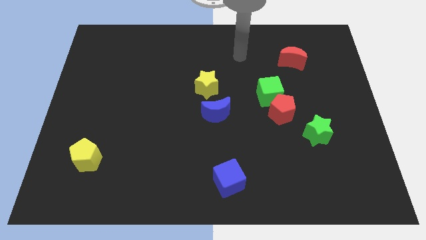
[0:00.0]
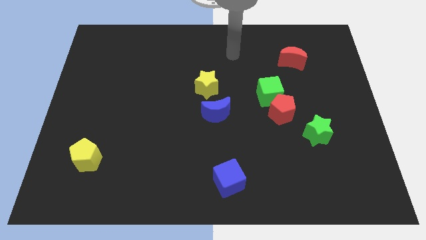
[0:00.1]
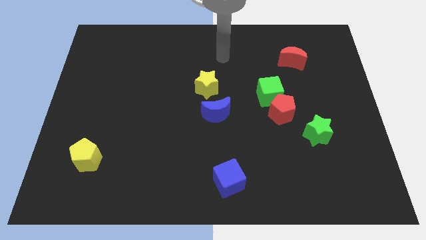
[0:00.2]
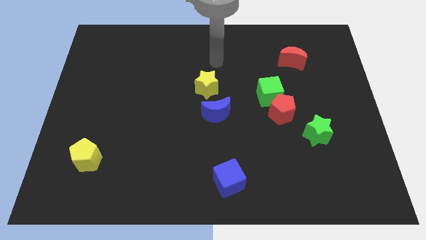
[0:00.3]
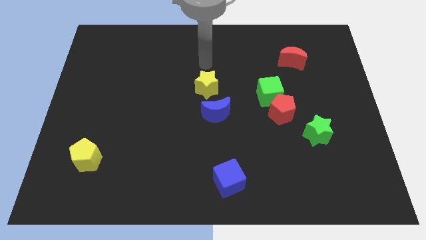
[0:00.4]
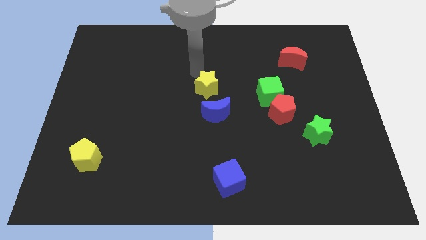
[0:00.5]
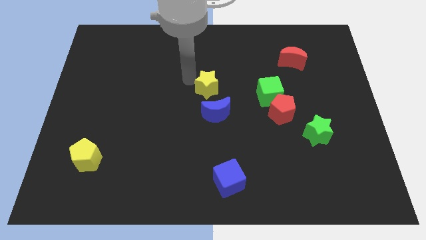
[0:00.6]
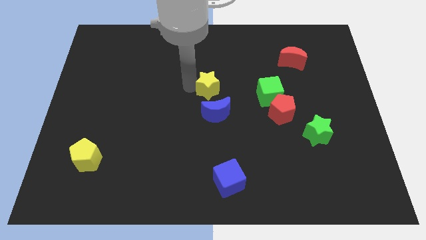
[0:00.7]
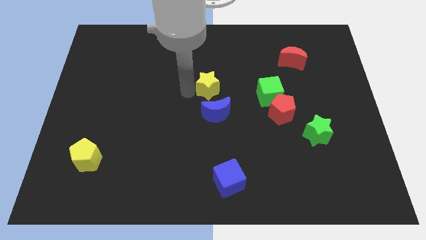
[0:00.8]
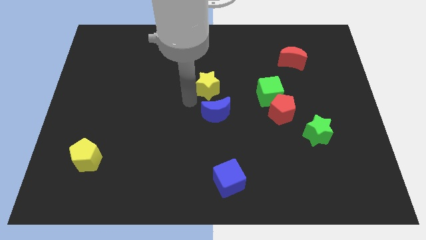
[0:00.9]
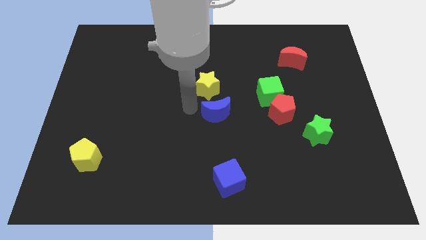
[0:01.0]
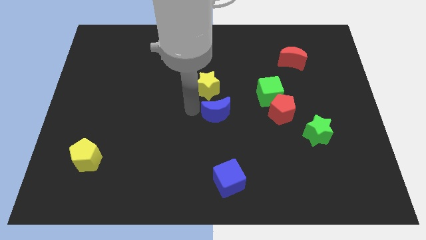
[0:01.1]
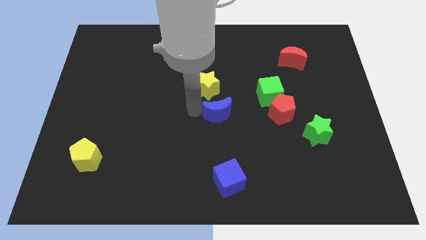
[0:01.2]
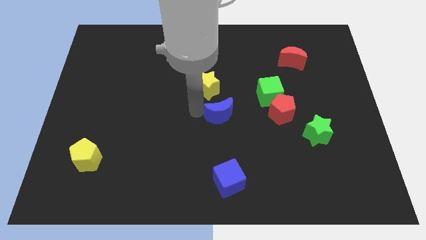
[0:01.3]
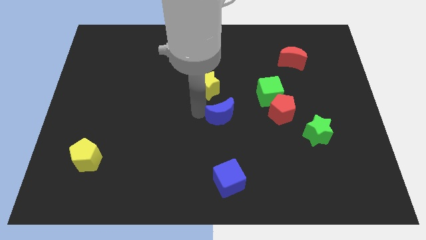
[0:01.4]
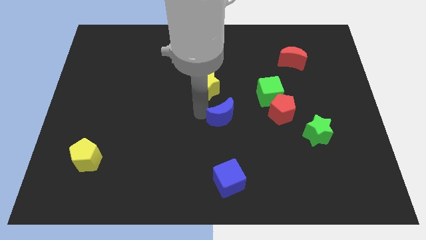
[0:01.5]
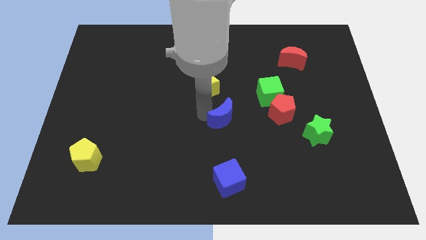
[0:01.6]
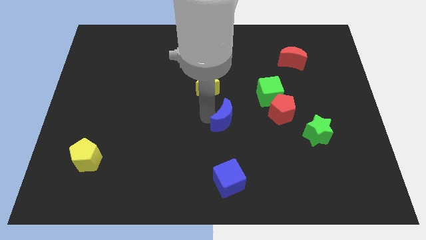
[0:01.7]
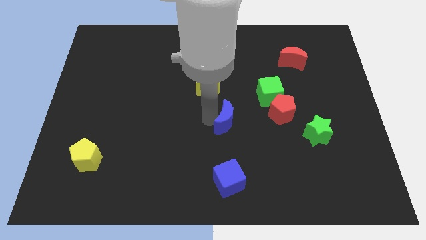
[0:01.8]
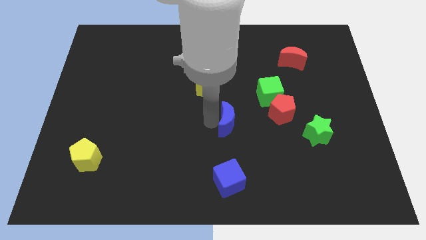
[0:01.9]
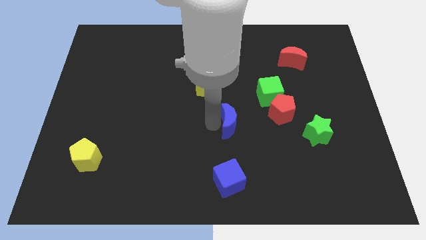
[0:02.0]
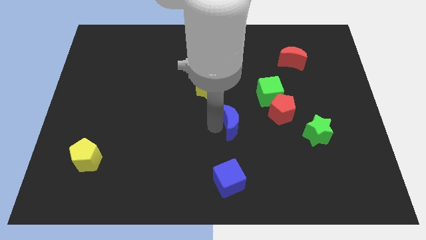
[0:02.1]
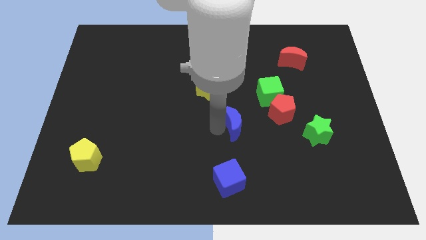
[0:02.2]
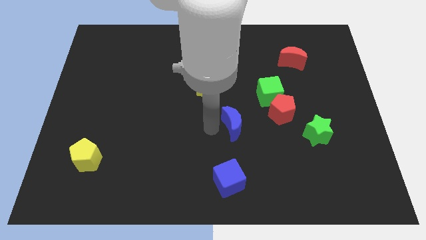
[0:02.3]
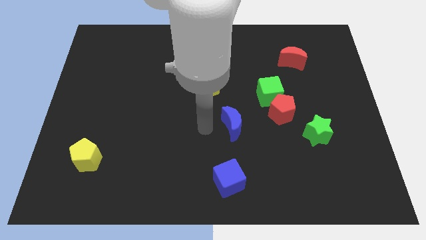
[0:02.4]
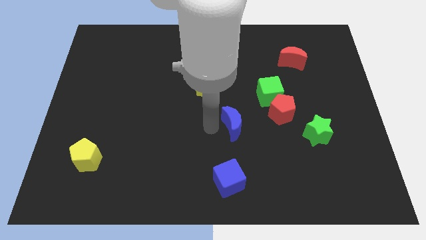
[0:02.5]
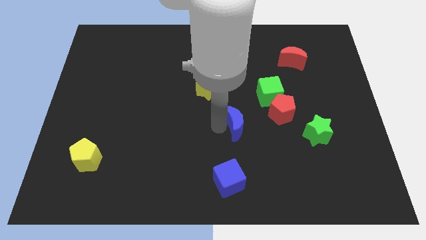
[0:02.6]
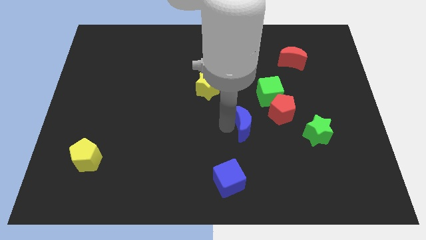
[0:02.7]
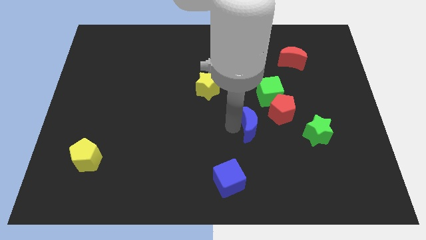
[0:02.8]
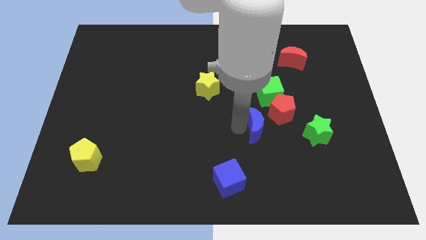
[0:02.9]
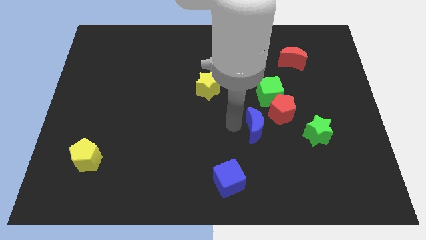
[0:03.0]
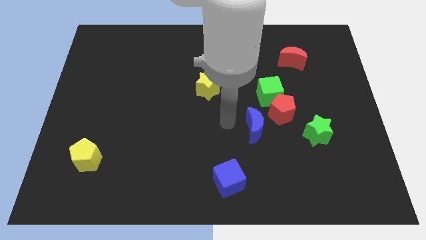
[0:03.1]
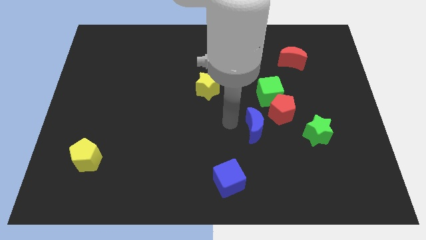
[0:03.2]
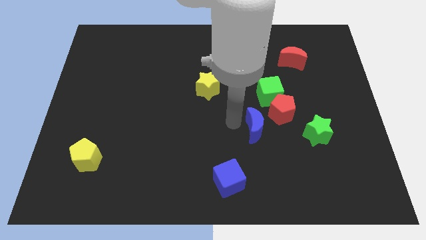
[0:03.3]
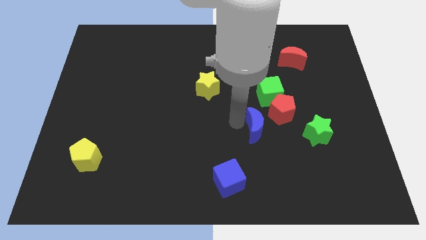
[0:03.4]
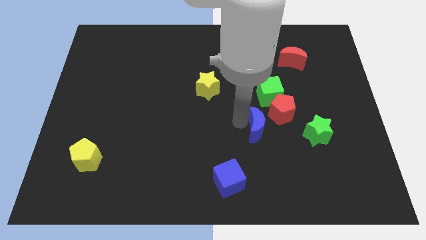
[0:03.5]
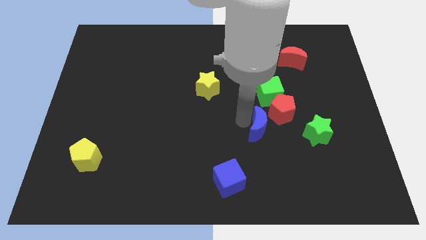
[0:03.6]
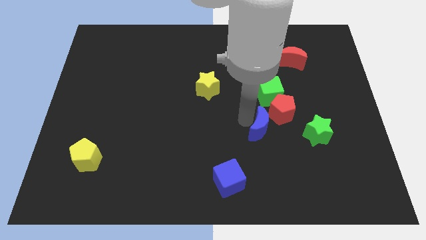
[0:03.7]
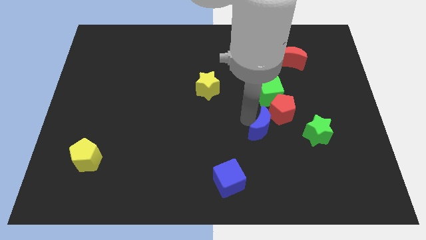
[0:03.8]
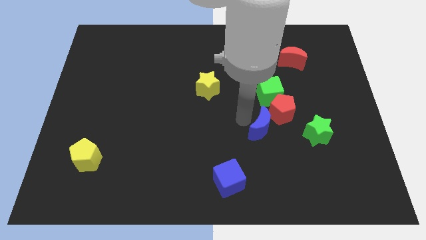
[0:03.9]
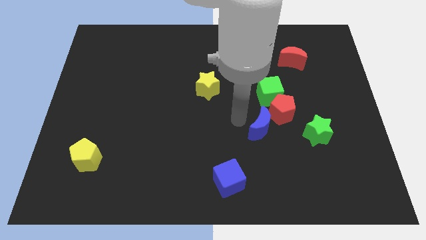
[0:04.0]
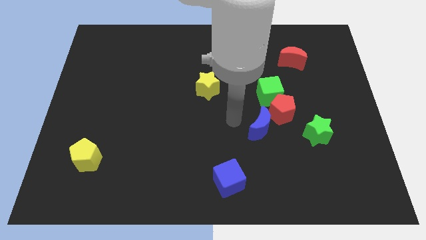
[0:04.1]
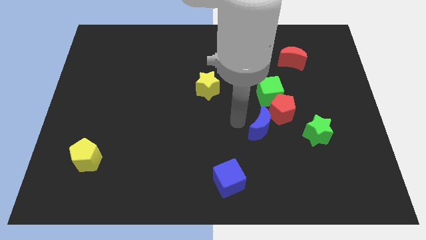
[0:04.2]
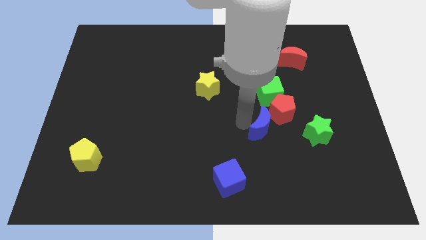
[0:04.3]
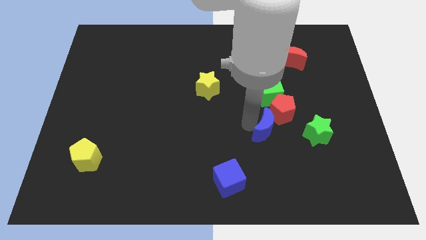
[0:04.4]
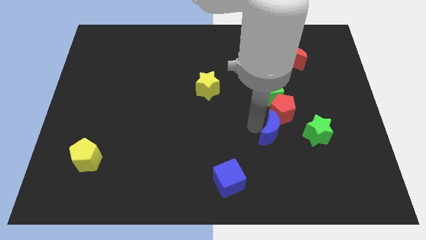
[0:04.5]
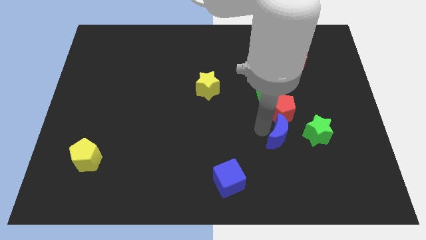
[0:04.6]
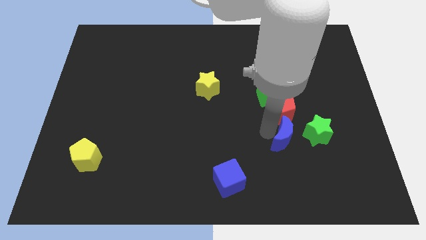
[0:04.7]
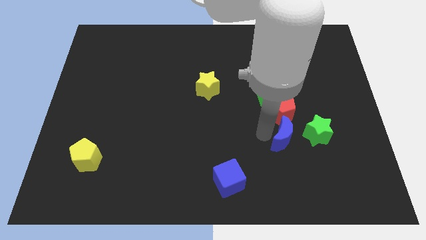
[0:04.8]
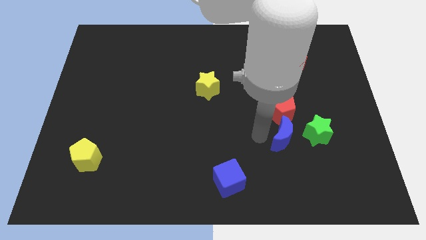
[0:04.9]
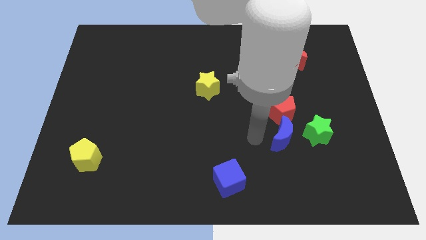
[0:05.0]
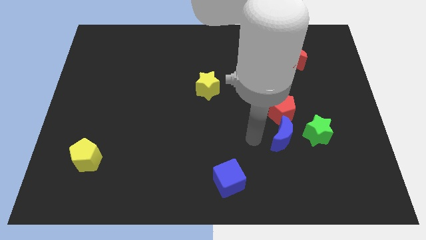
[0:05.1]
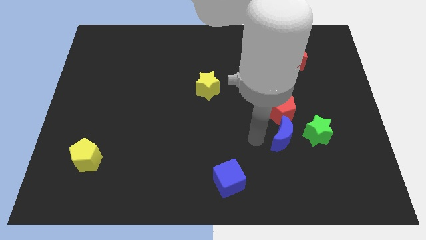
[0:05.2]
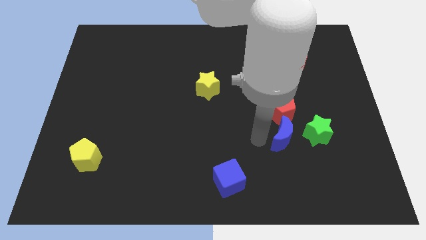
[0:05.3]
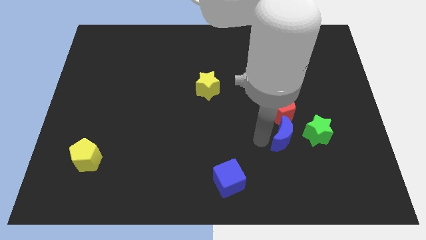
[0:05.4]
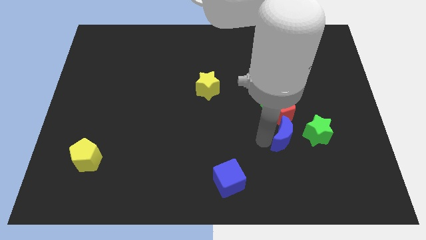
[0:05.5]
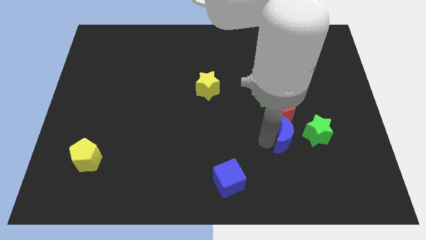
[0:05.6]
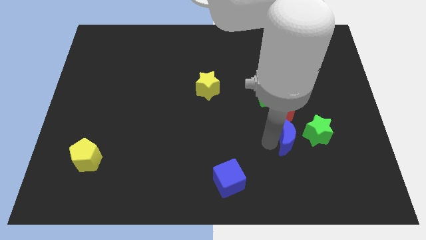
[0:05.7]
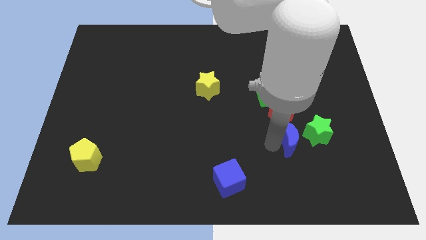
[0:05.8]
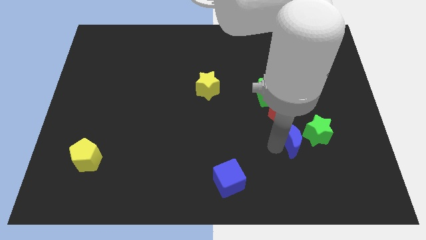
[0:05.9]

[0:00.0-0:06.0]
push the blue moon towards the green star
